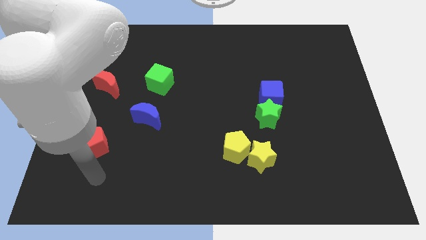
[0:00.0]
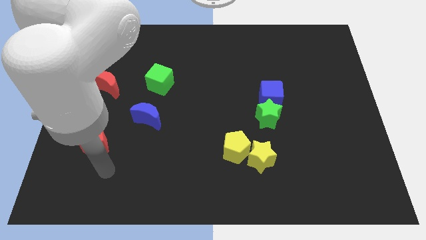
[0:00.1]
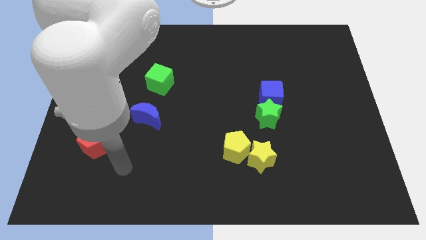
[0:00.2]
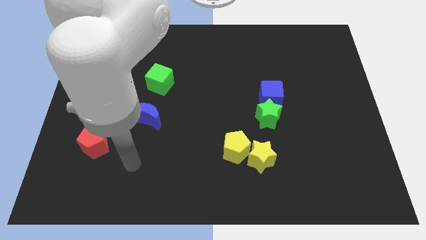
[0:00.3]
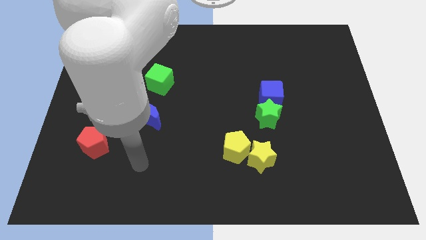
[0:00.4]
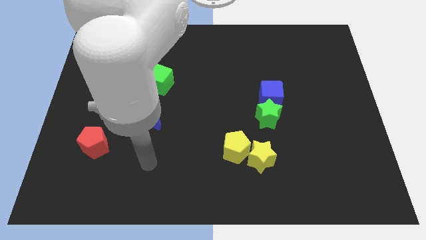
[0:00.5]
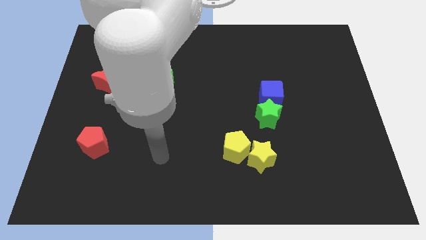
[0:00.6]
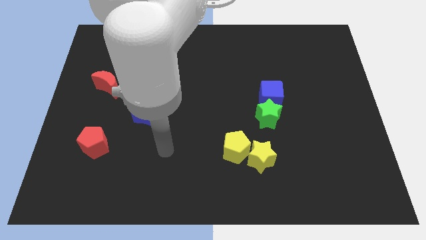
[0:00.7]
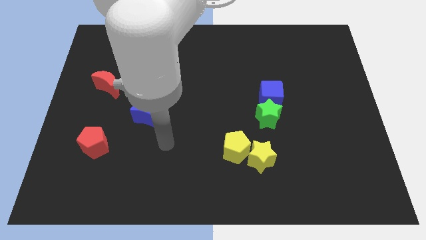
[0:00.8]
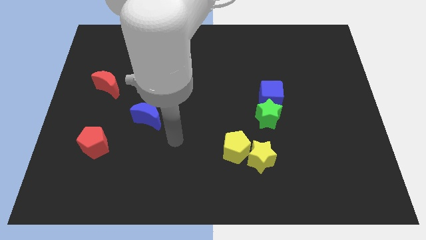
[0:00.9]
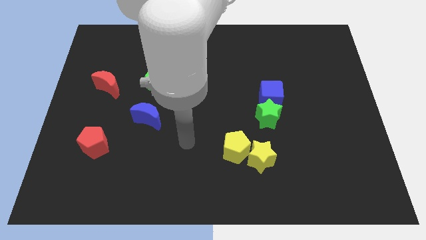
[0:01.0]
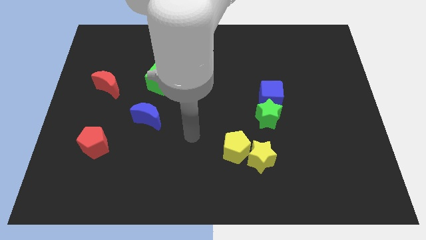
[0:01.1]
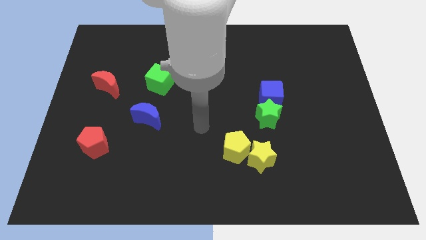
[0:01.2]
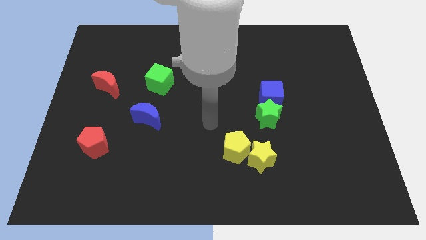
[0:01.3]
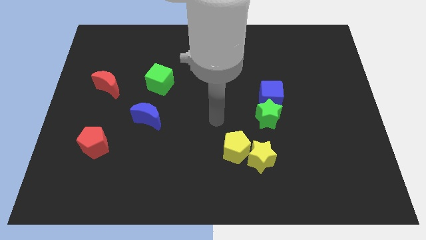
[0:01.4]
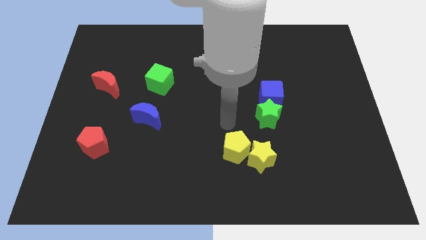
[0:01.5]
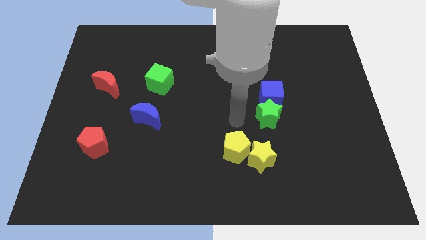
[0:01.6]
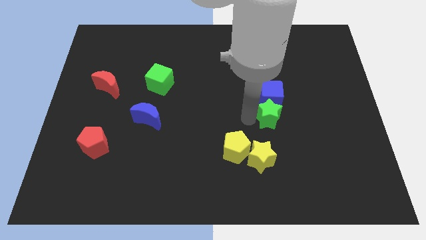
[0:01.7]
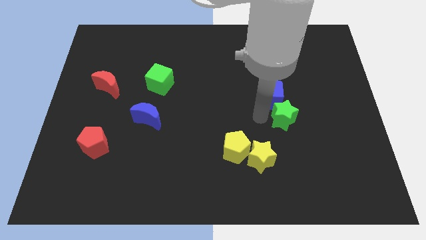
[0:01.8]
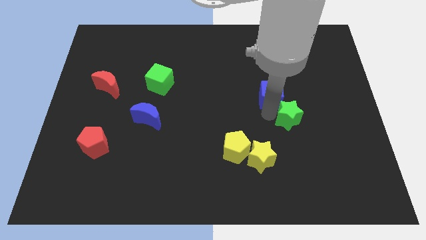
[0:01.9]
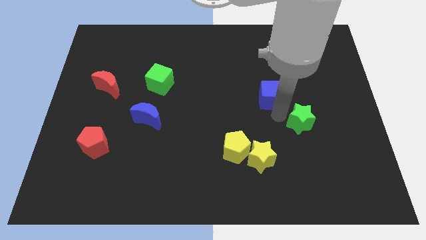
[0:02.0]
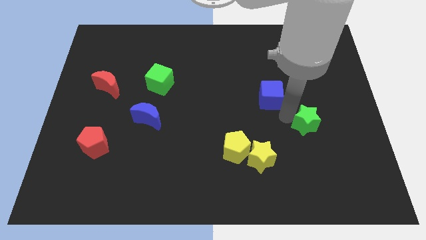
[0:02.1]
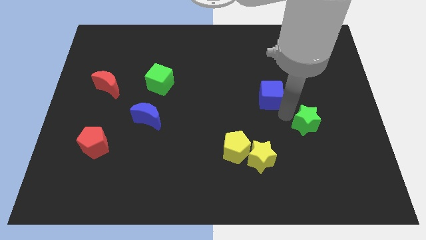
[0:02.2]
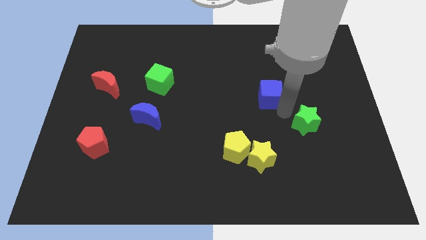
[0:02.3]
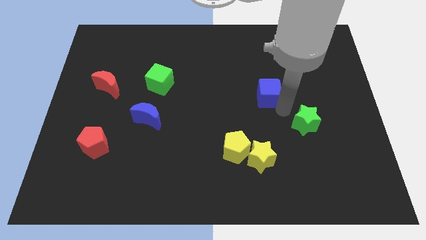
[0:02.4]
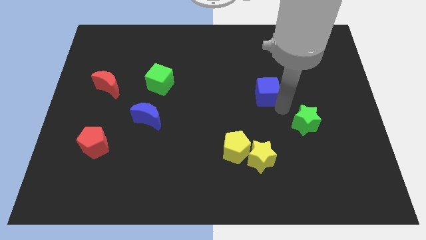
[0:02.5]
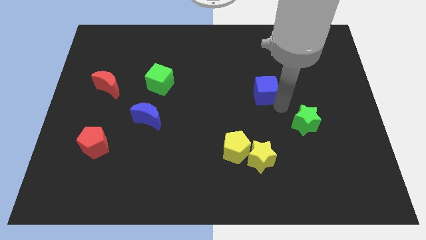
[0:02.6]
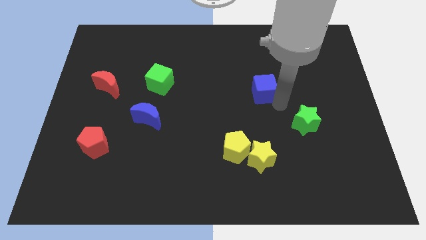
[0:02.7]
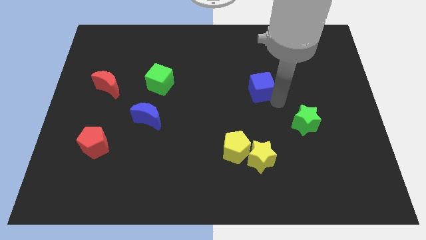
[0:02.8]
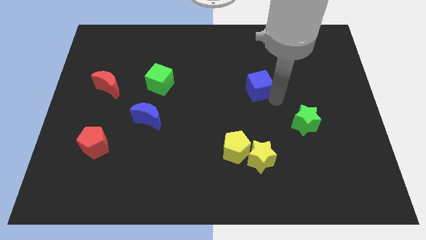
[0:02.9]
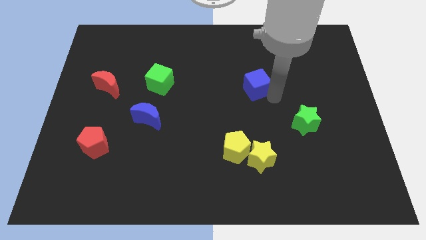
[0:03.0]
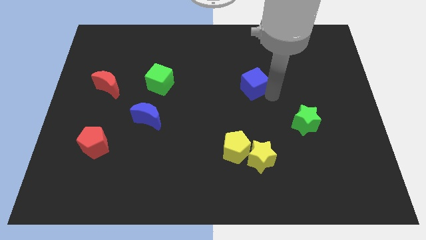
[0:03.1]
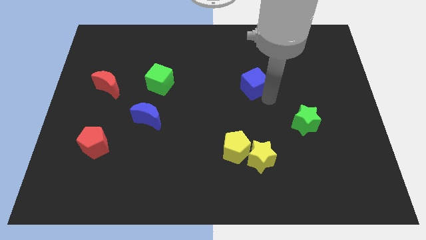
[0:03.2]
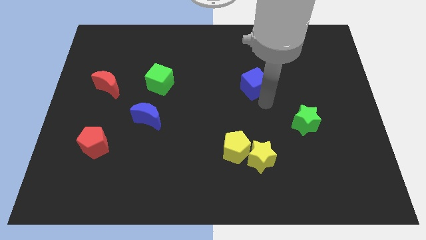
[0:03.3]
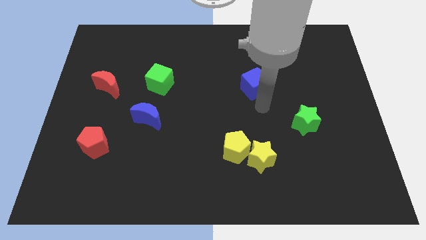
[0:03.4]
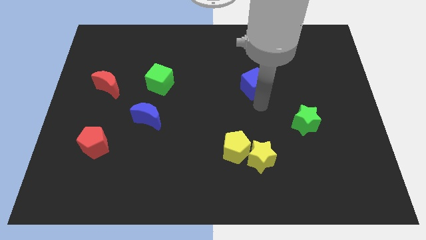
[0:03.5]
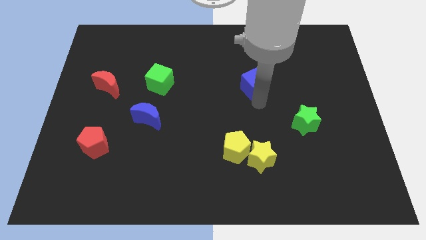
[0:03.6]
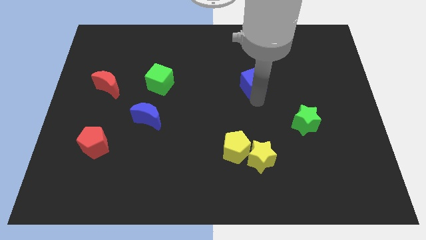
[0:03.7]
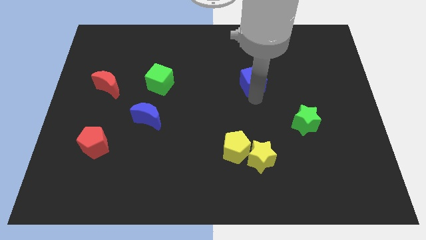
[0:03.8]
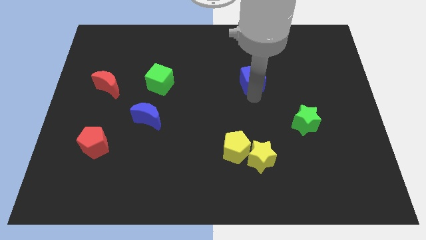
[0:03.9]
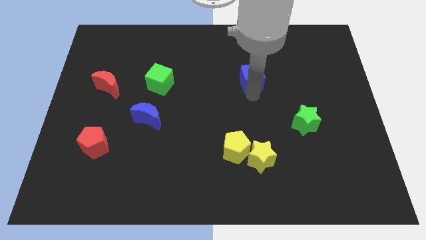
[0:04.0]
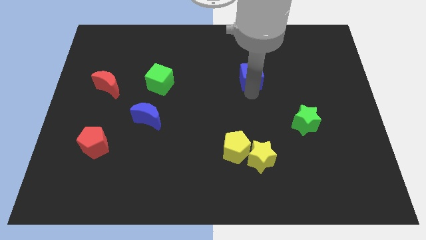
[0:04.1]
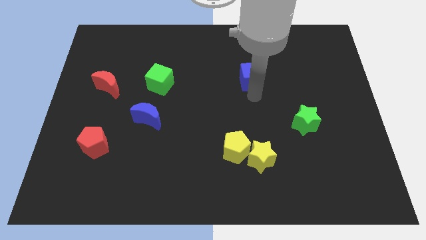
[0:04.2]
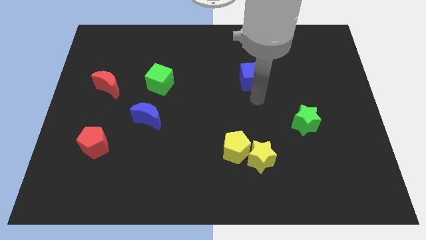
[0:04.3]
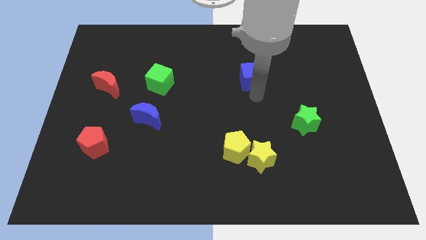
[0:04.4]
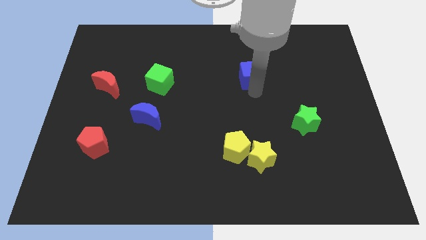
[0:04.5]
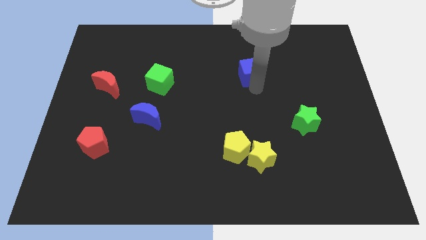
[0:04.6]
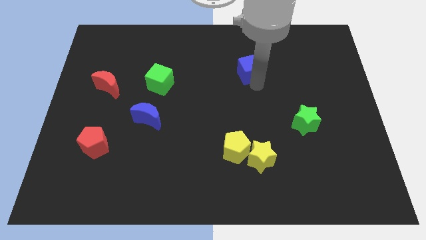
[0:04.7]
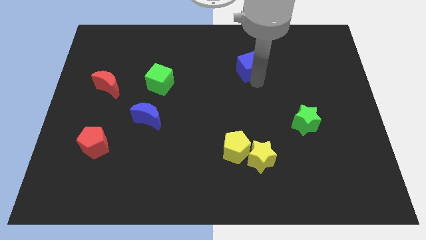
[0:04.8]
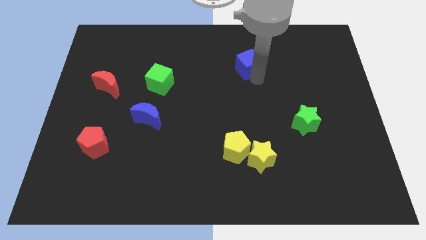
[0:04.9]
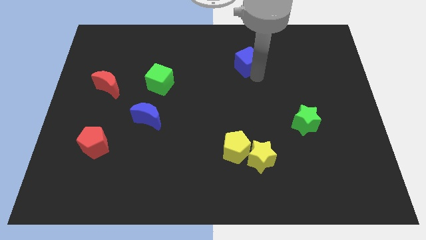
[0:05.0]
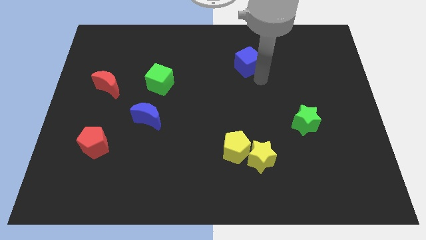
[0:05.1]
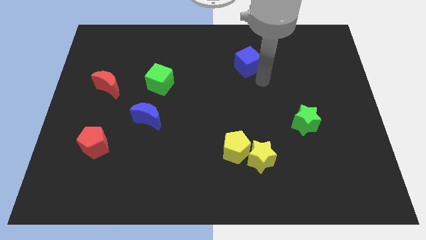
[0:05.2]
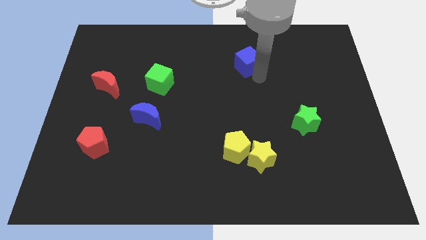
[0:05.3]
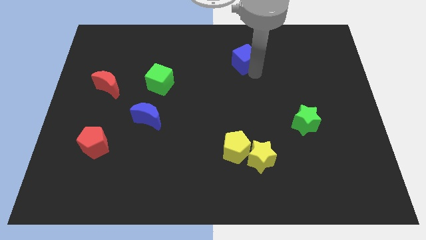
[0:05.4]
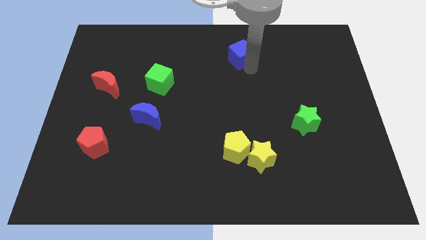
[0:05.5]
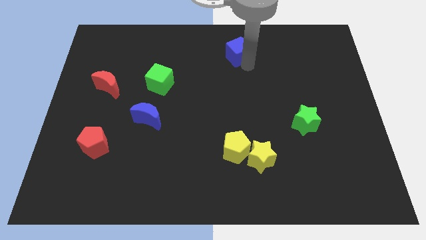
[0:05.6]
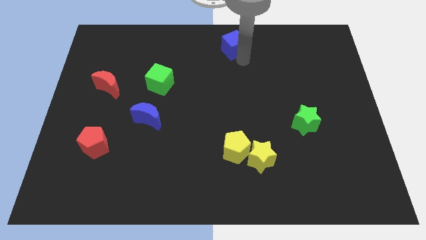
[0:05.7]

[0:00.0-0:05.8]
move the blue cube to the top side
